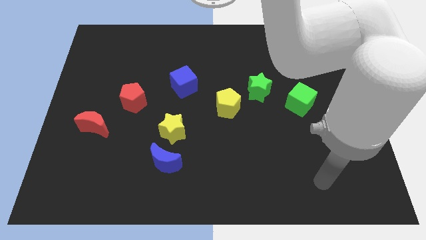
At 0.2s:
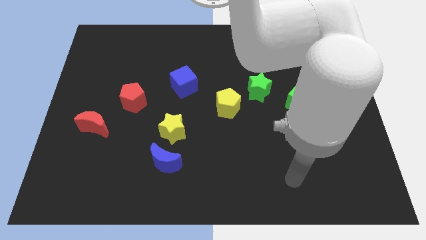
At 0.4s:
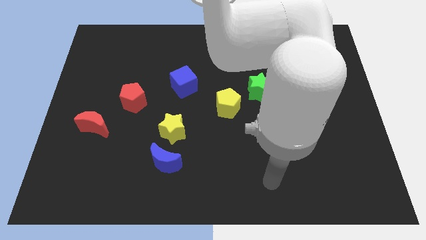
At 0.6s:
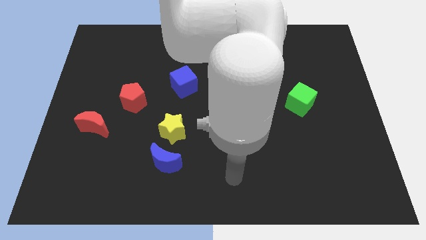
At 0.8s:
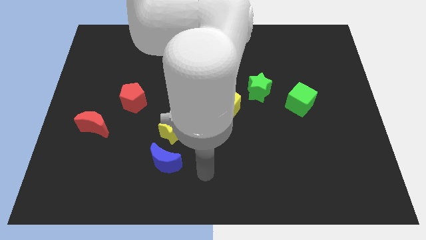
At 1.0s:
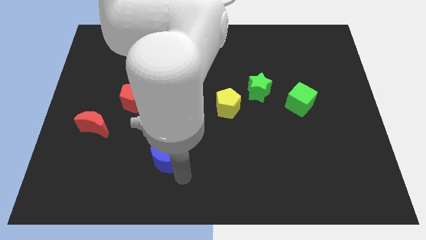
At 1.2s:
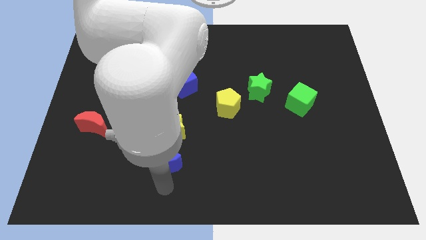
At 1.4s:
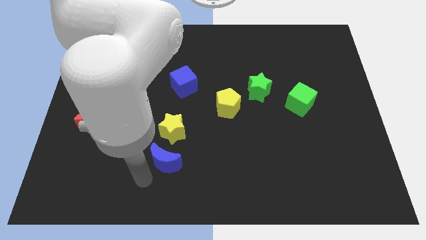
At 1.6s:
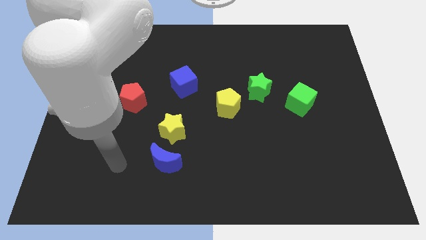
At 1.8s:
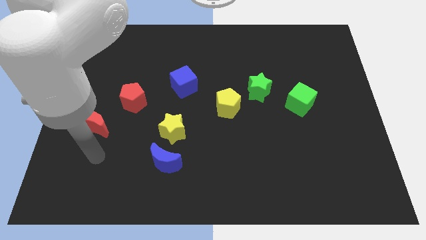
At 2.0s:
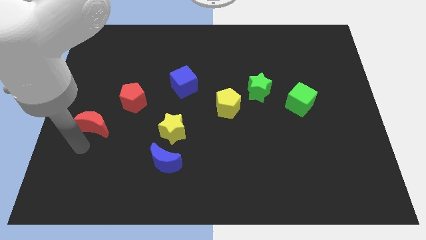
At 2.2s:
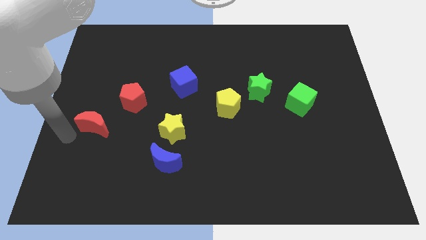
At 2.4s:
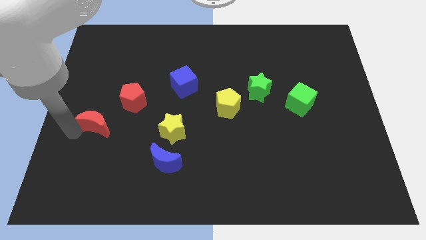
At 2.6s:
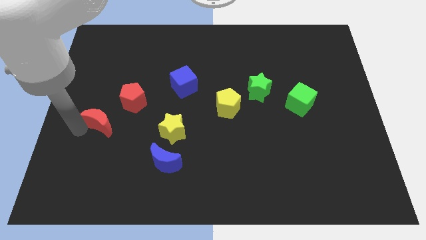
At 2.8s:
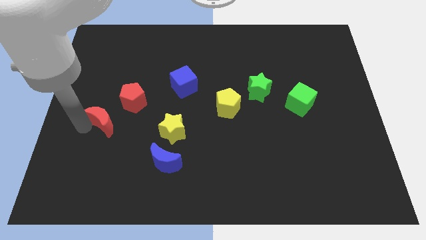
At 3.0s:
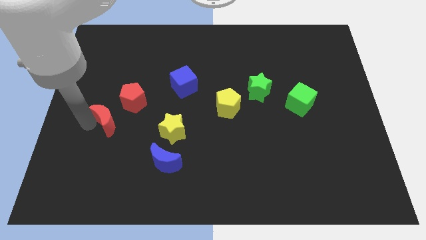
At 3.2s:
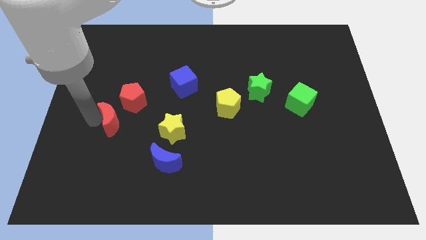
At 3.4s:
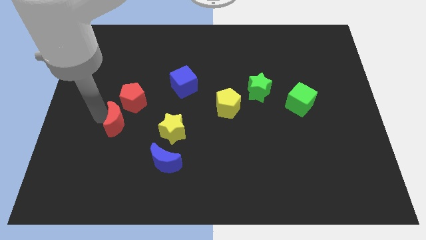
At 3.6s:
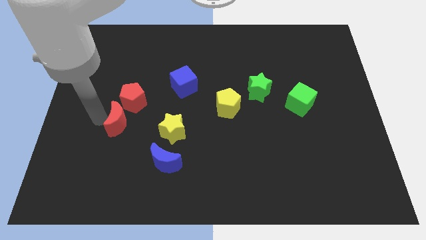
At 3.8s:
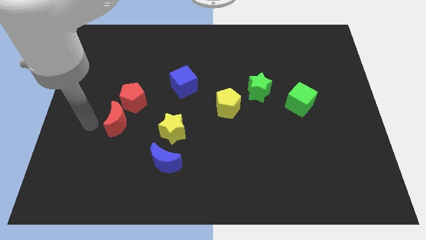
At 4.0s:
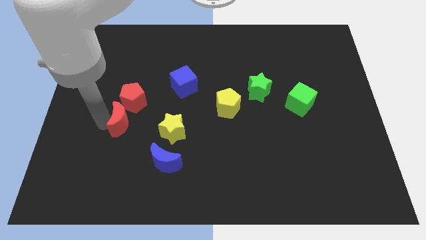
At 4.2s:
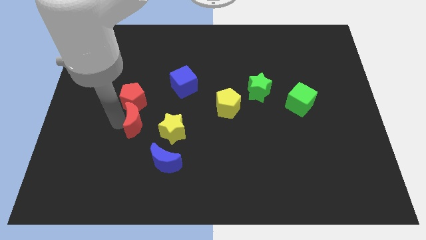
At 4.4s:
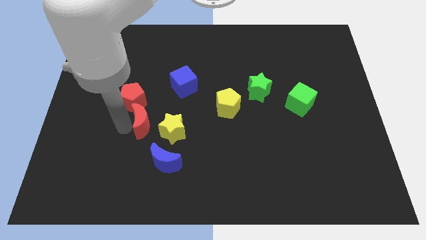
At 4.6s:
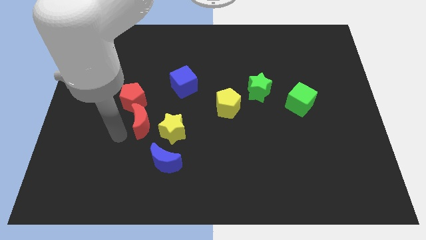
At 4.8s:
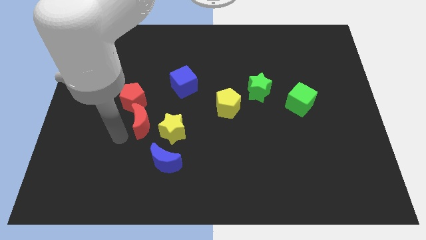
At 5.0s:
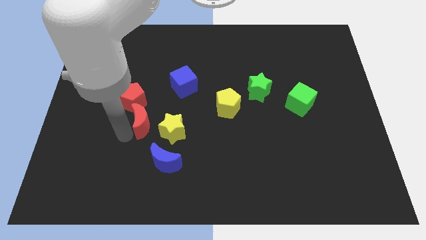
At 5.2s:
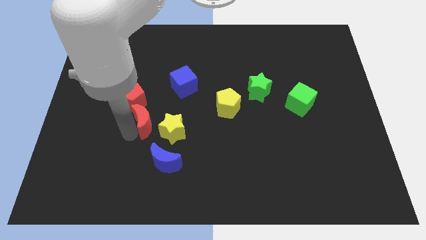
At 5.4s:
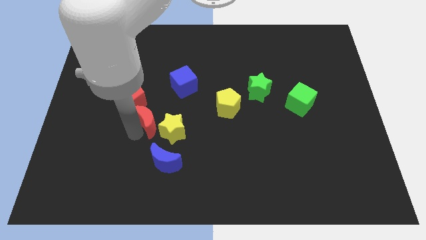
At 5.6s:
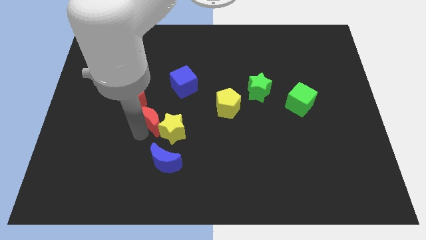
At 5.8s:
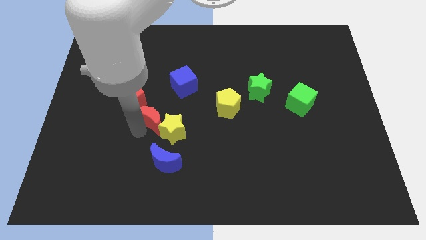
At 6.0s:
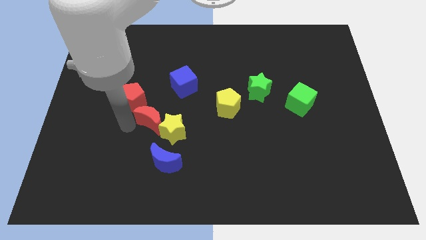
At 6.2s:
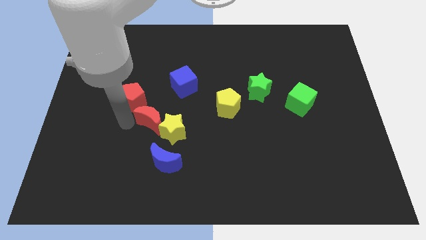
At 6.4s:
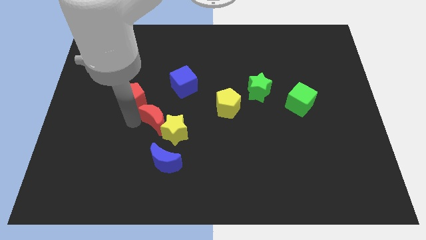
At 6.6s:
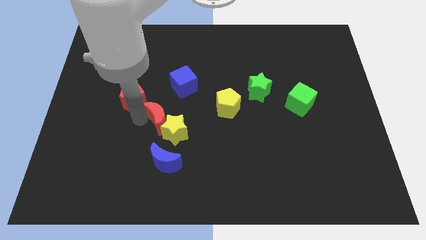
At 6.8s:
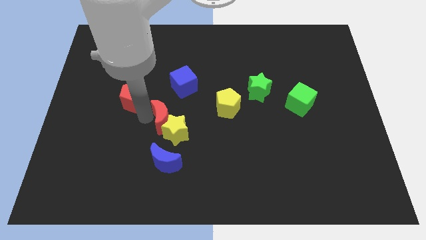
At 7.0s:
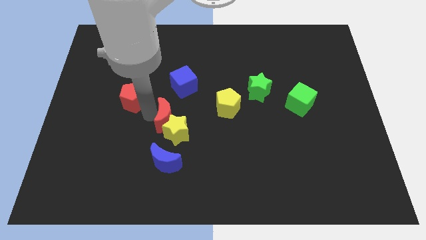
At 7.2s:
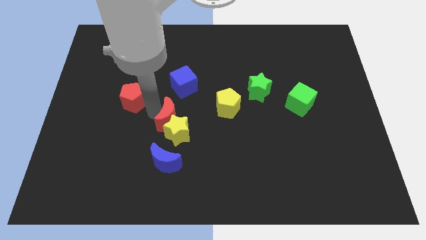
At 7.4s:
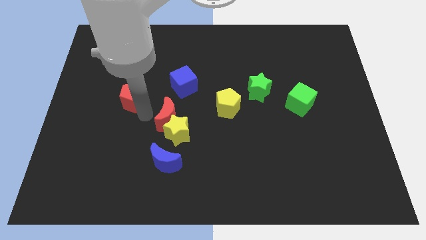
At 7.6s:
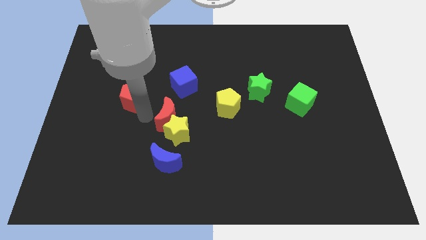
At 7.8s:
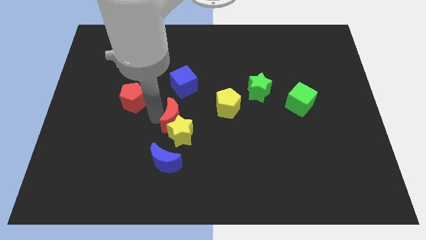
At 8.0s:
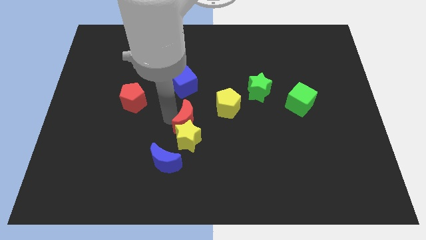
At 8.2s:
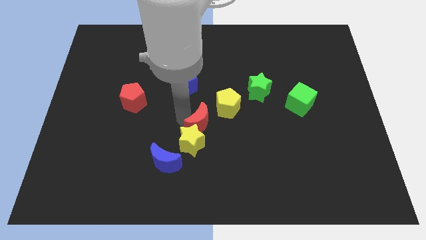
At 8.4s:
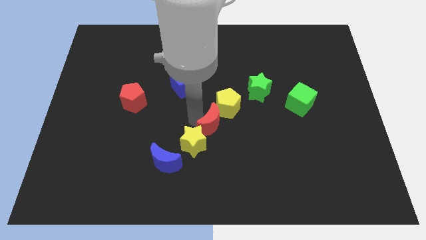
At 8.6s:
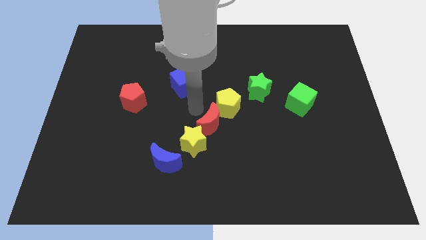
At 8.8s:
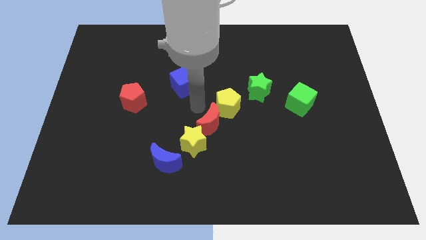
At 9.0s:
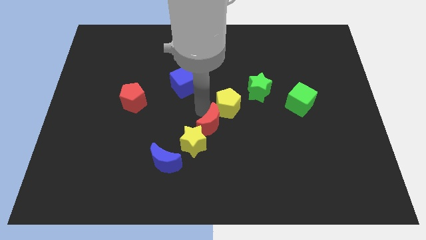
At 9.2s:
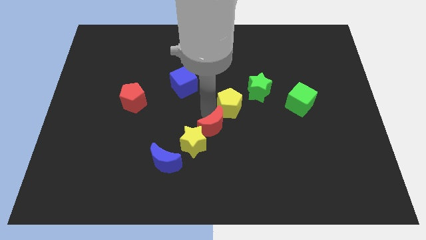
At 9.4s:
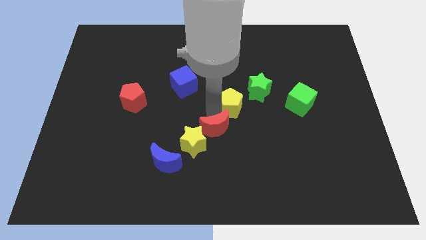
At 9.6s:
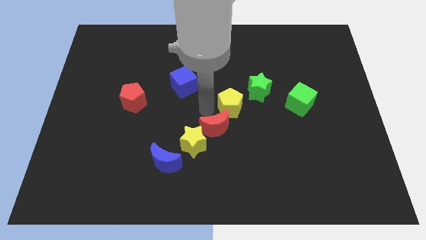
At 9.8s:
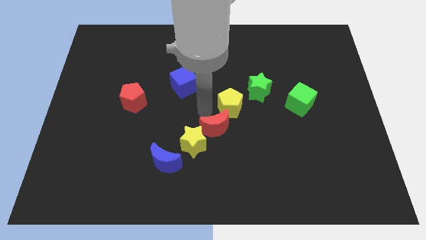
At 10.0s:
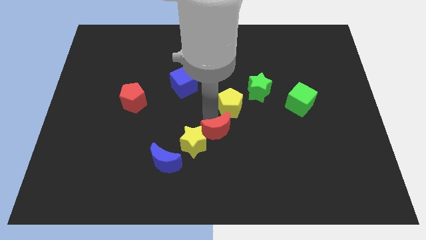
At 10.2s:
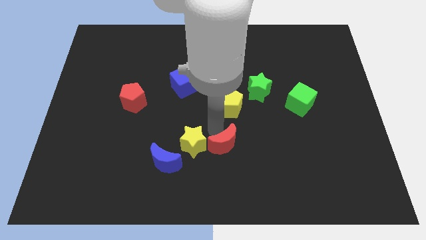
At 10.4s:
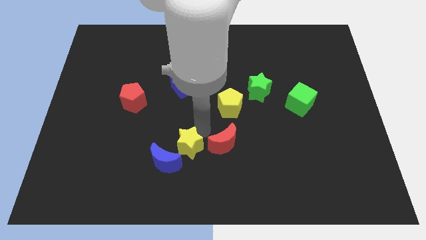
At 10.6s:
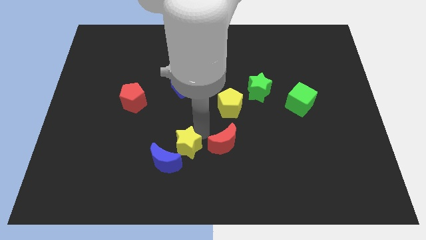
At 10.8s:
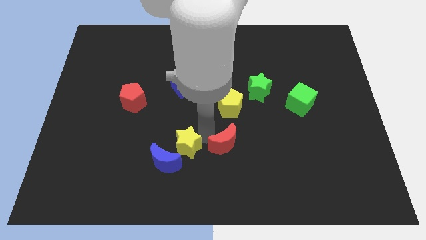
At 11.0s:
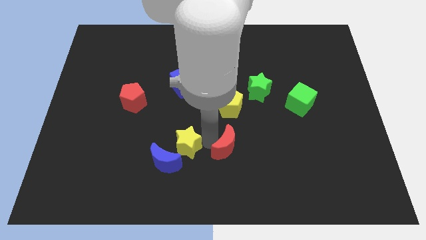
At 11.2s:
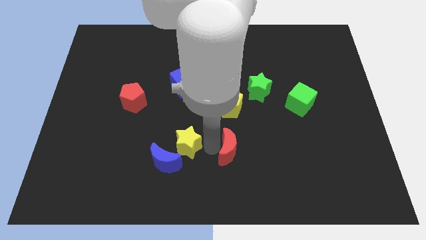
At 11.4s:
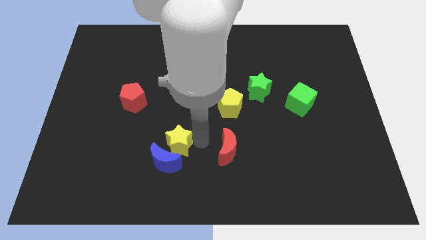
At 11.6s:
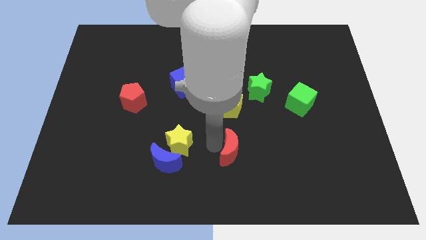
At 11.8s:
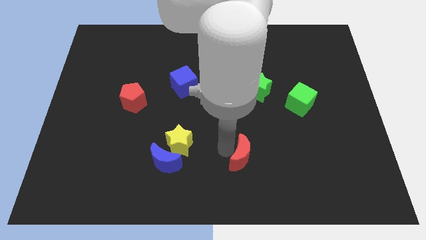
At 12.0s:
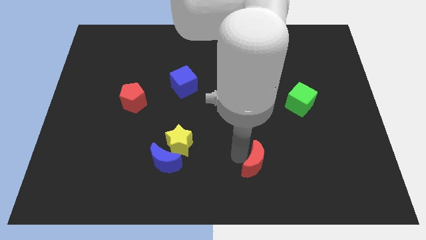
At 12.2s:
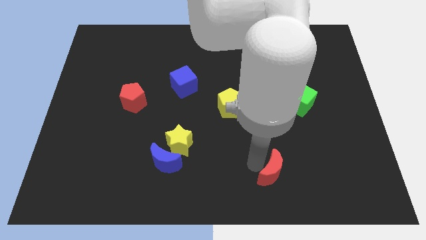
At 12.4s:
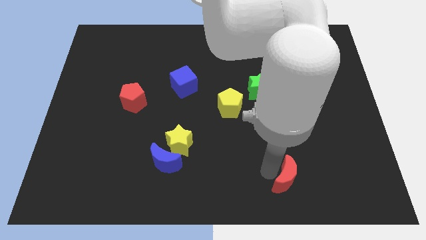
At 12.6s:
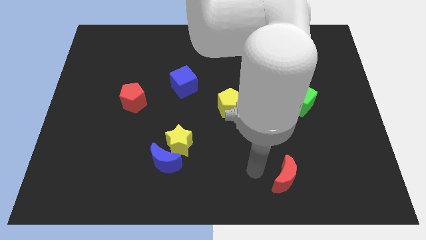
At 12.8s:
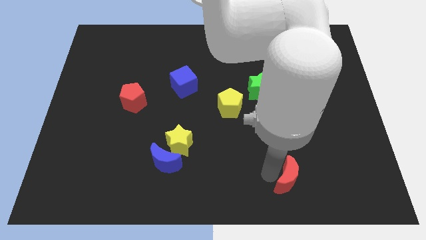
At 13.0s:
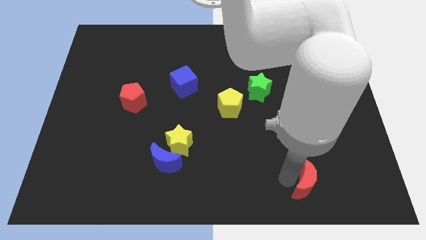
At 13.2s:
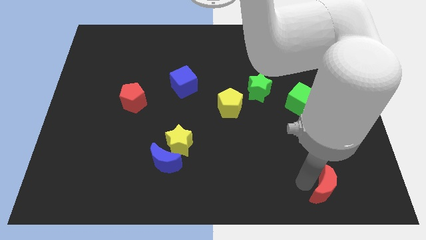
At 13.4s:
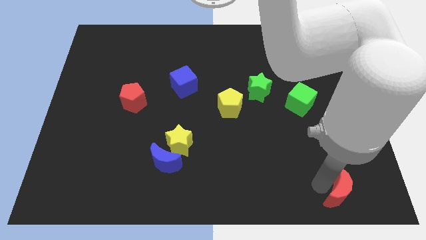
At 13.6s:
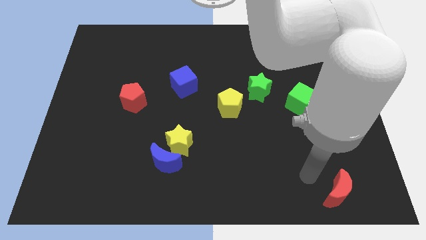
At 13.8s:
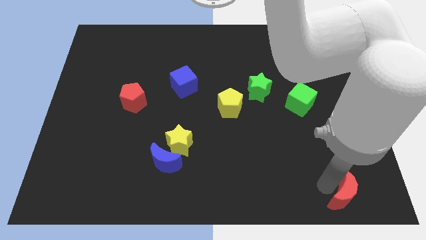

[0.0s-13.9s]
push the red moon to the bottom right corner
